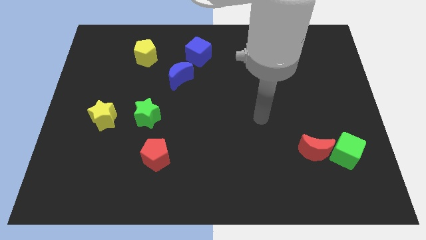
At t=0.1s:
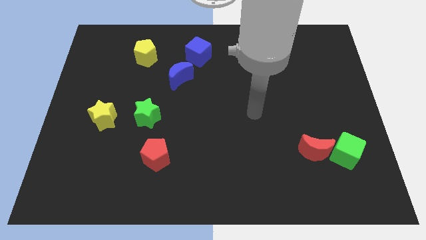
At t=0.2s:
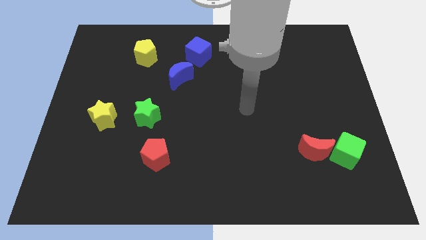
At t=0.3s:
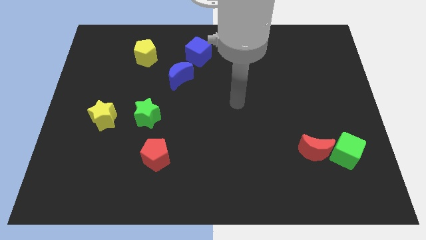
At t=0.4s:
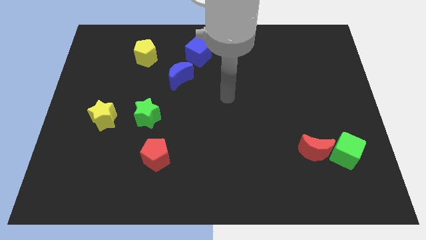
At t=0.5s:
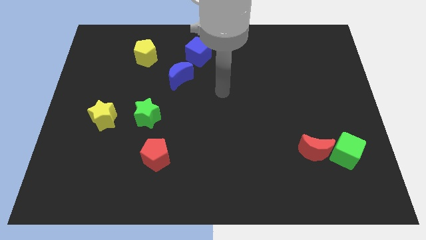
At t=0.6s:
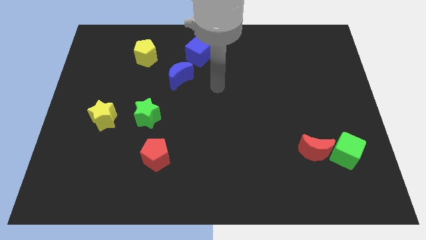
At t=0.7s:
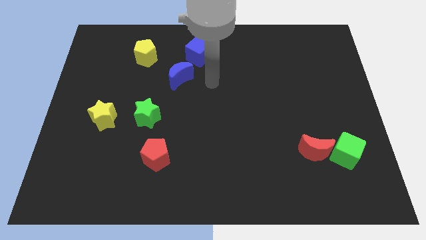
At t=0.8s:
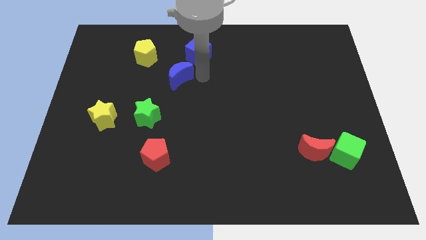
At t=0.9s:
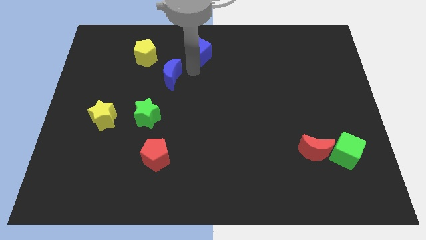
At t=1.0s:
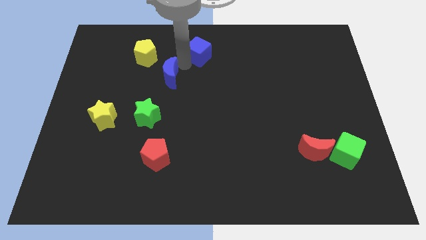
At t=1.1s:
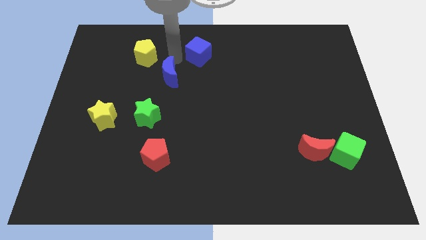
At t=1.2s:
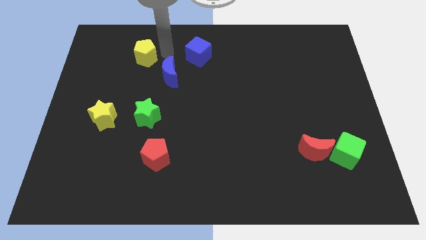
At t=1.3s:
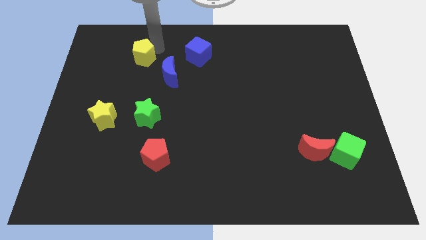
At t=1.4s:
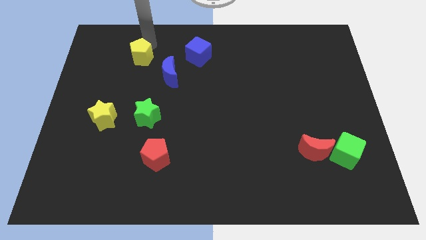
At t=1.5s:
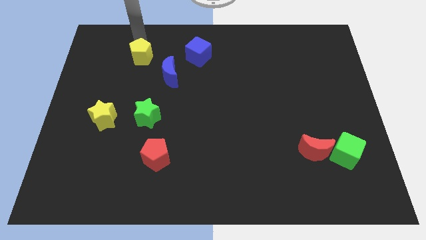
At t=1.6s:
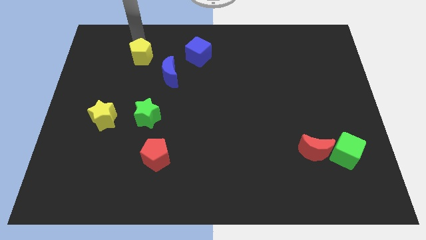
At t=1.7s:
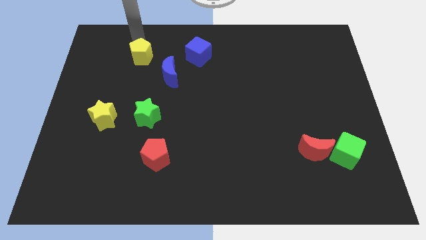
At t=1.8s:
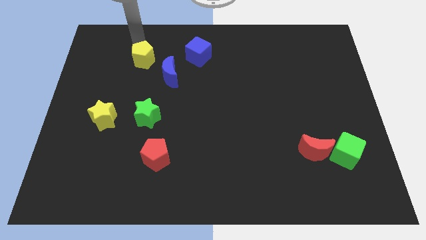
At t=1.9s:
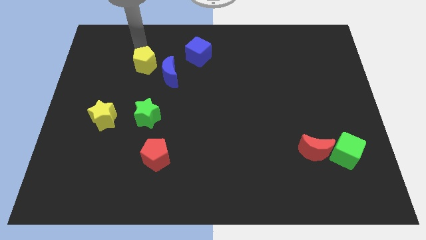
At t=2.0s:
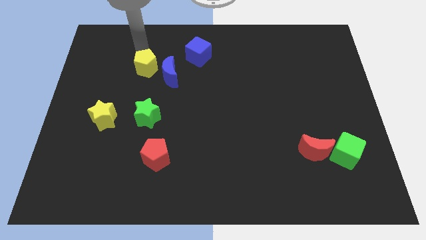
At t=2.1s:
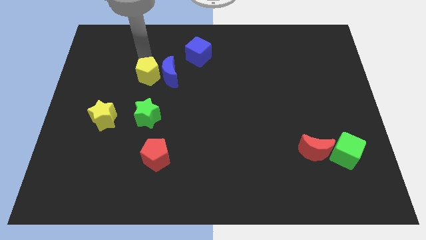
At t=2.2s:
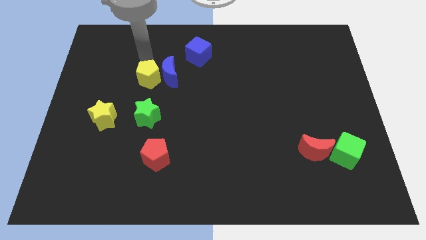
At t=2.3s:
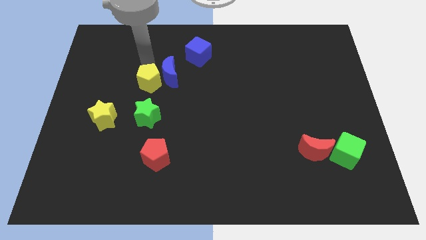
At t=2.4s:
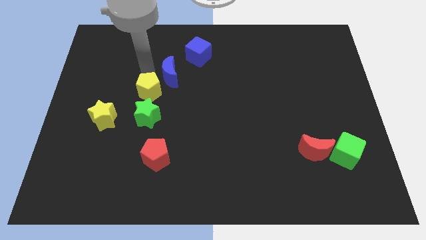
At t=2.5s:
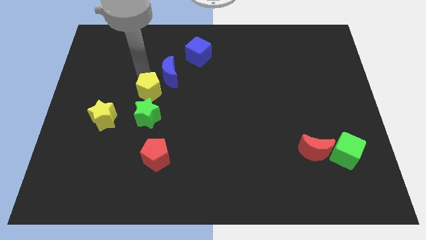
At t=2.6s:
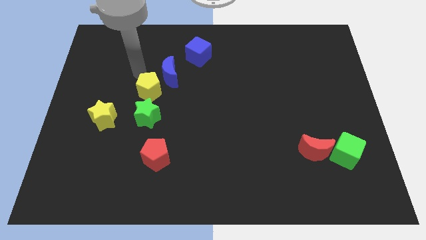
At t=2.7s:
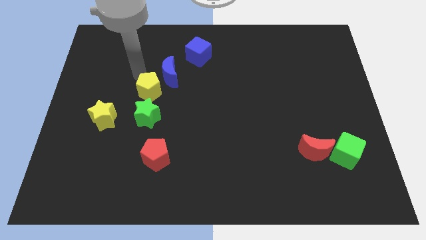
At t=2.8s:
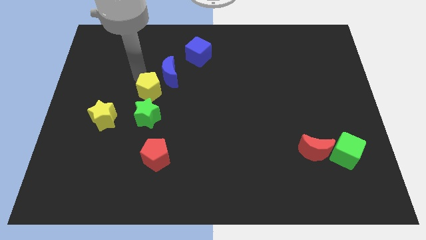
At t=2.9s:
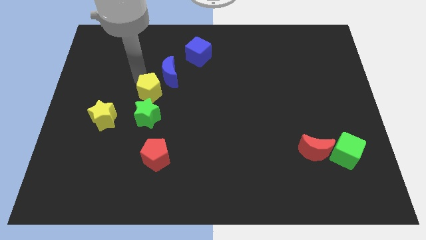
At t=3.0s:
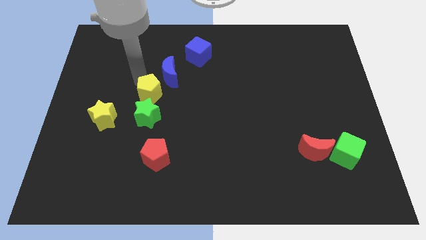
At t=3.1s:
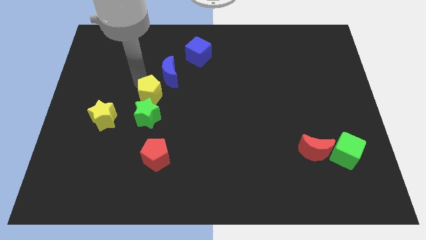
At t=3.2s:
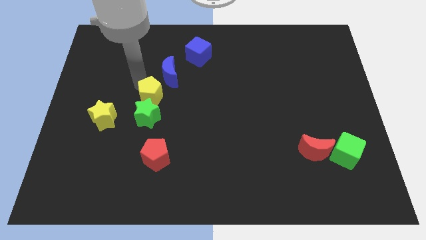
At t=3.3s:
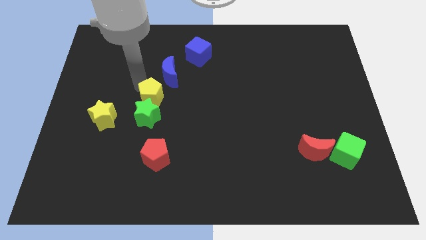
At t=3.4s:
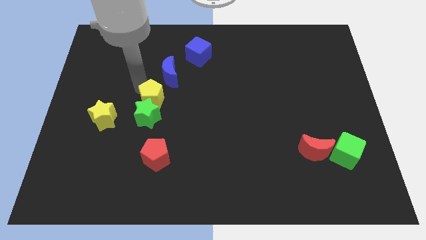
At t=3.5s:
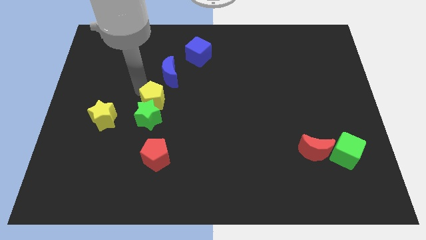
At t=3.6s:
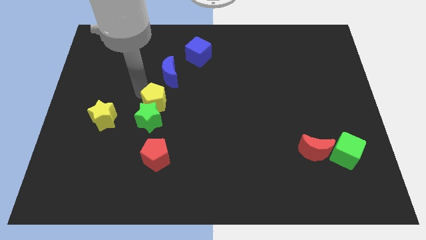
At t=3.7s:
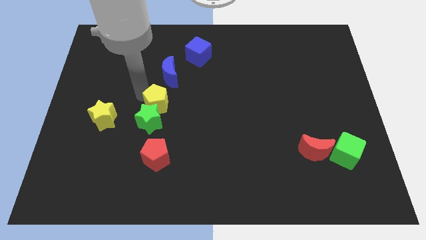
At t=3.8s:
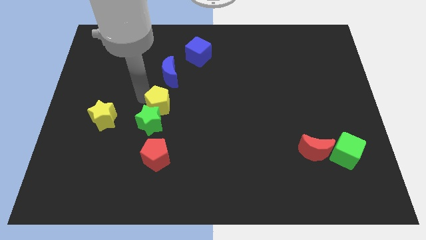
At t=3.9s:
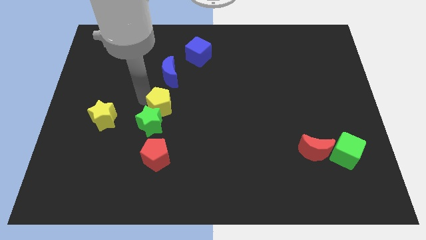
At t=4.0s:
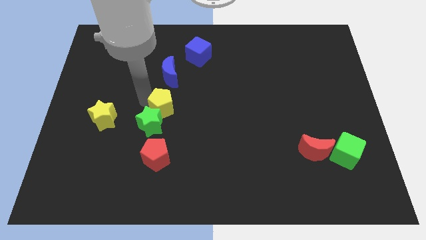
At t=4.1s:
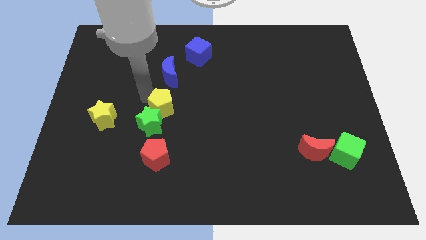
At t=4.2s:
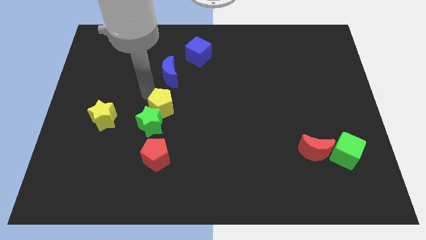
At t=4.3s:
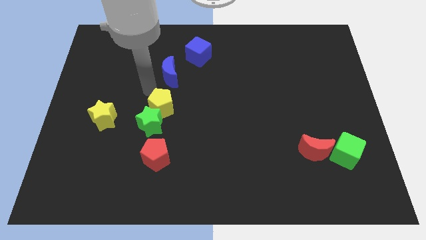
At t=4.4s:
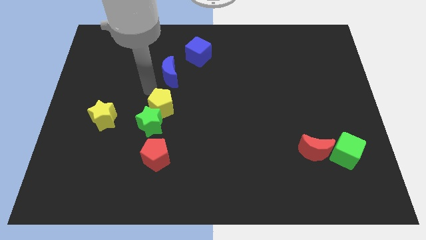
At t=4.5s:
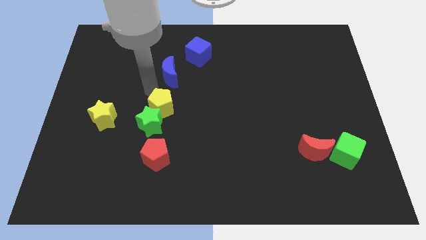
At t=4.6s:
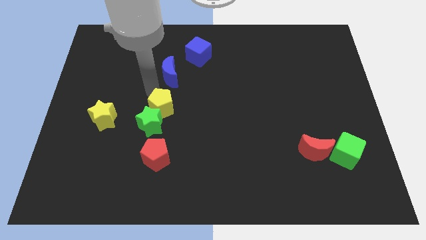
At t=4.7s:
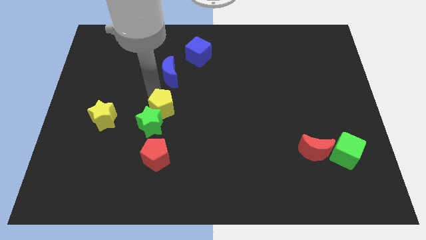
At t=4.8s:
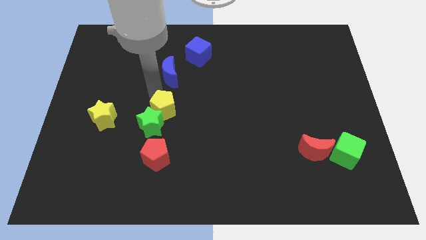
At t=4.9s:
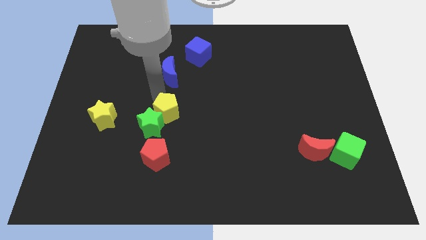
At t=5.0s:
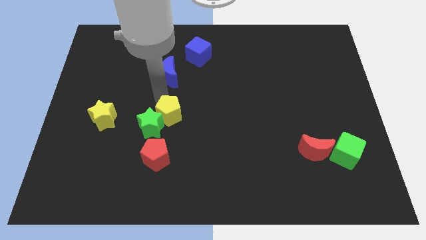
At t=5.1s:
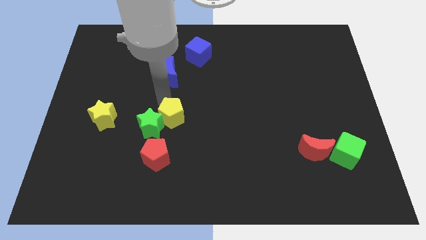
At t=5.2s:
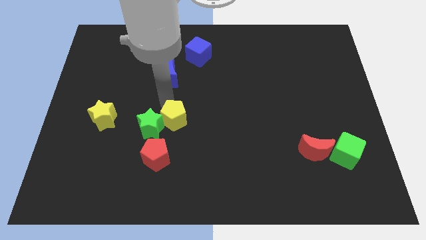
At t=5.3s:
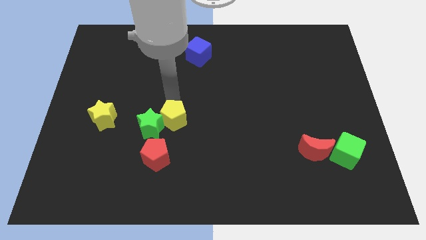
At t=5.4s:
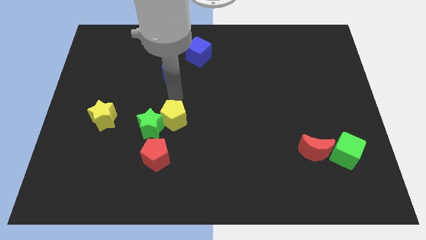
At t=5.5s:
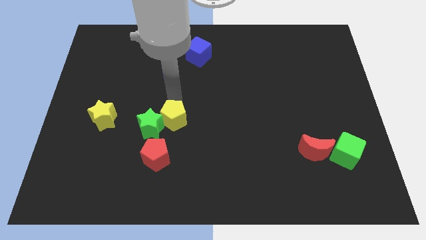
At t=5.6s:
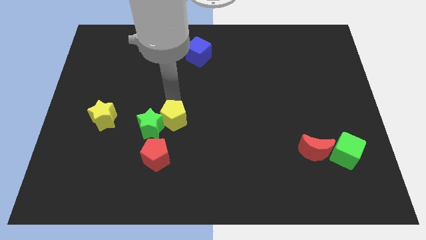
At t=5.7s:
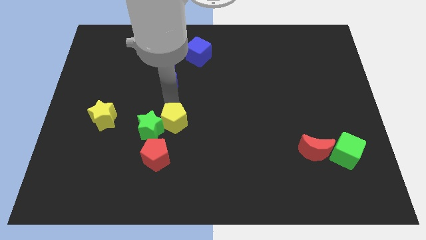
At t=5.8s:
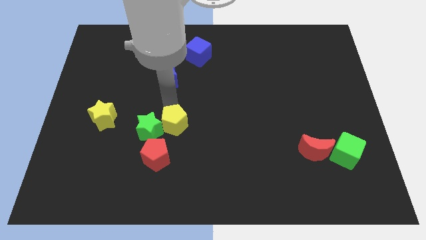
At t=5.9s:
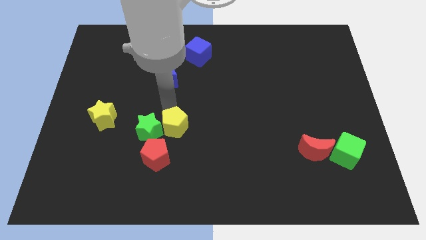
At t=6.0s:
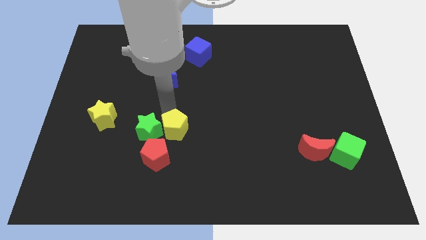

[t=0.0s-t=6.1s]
slide the yellow pentagon to the bottom right side of the green star
